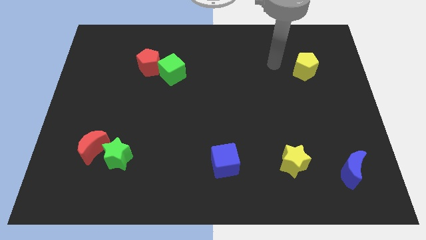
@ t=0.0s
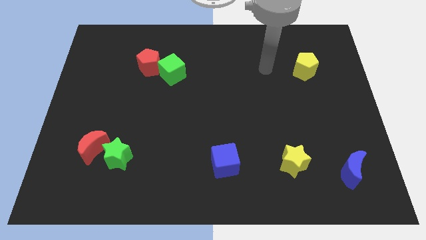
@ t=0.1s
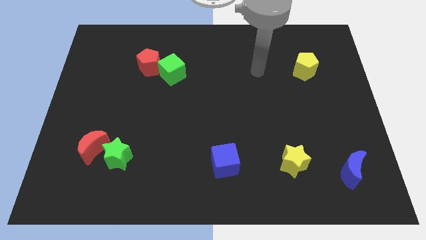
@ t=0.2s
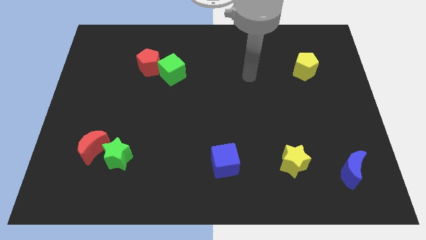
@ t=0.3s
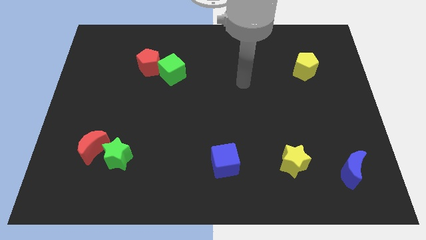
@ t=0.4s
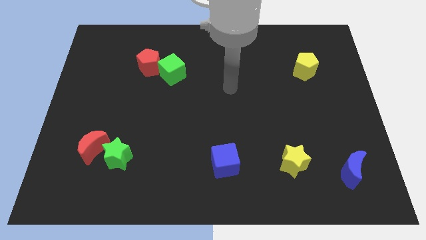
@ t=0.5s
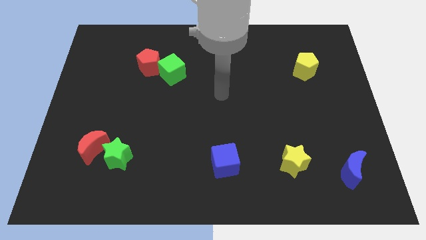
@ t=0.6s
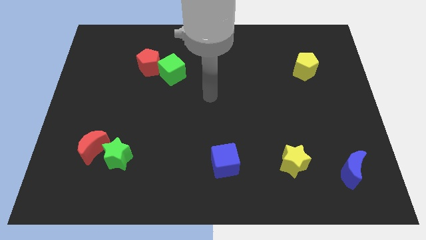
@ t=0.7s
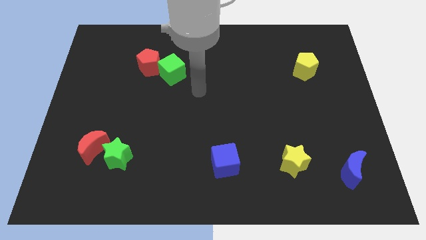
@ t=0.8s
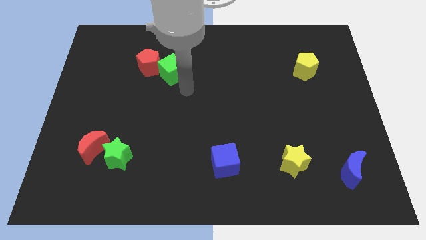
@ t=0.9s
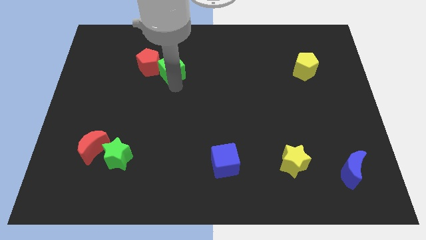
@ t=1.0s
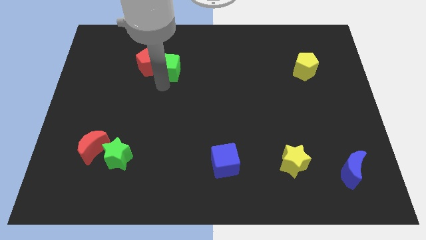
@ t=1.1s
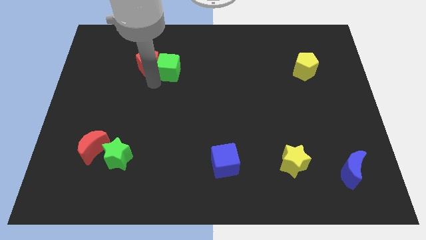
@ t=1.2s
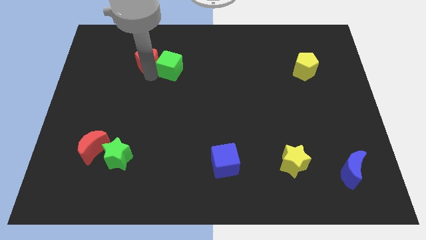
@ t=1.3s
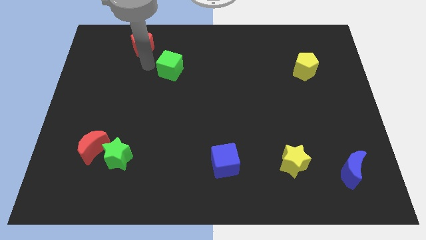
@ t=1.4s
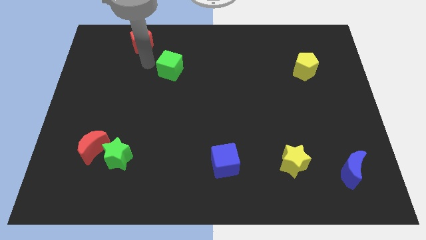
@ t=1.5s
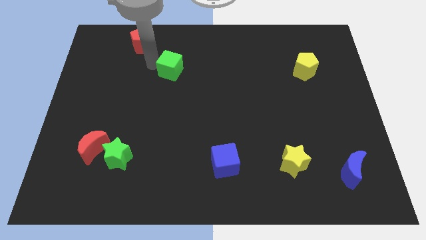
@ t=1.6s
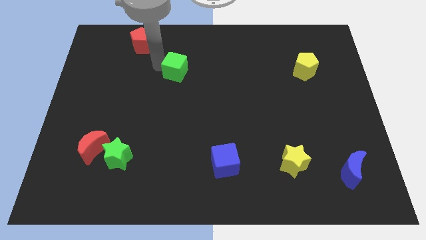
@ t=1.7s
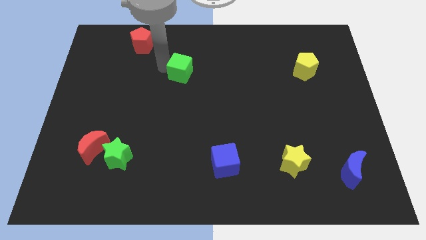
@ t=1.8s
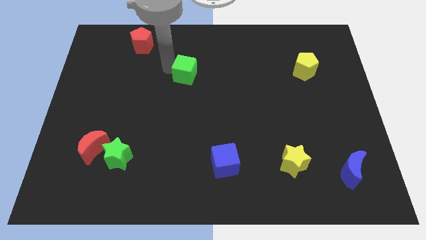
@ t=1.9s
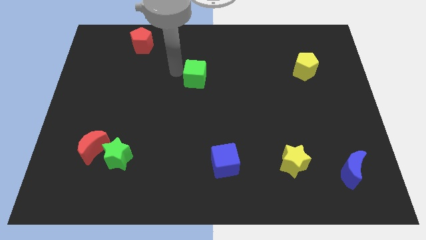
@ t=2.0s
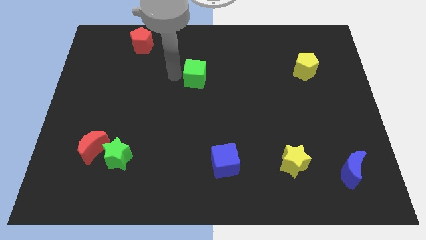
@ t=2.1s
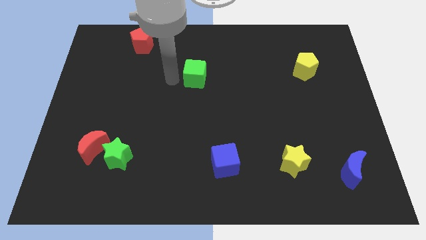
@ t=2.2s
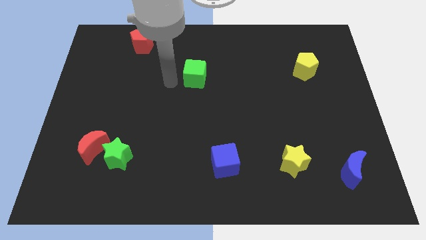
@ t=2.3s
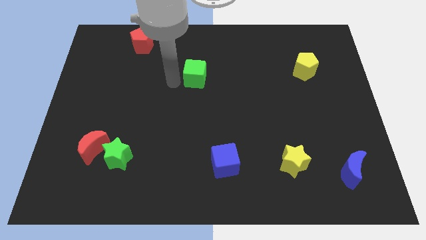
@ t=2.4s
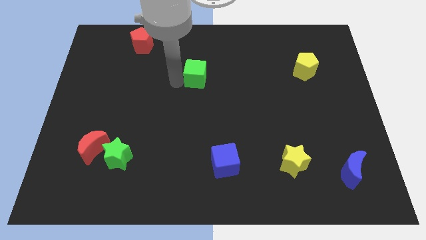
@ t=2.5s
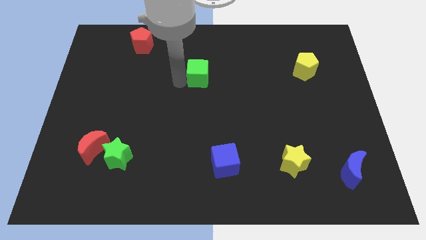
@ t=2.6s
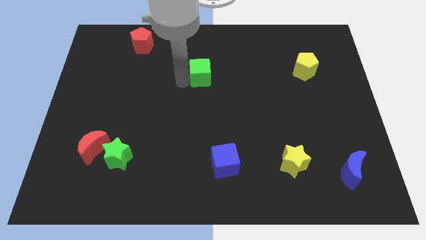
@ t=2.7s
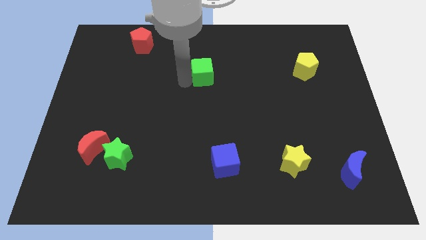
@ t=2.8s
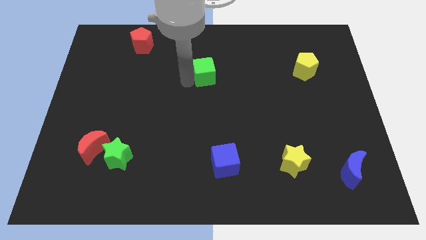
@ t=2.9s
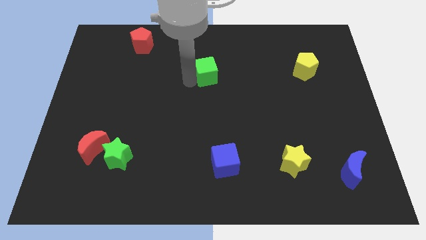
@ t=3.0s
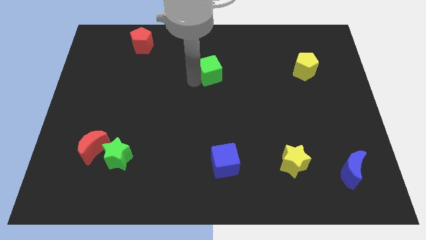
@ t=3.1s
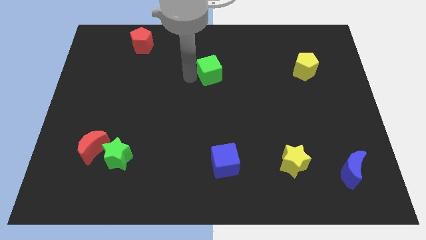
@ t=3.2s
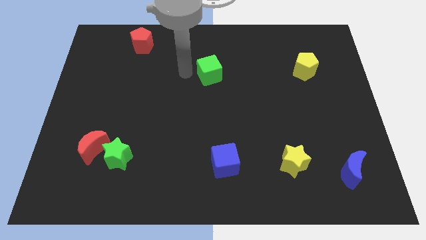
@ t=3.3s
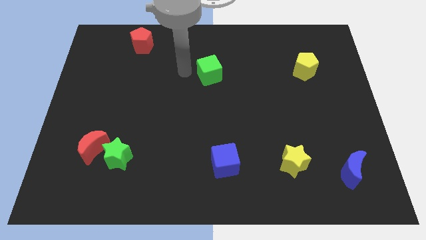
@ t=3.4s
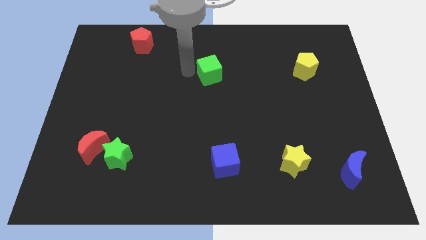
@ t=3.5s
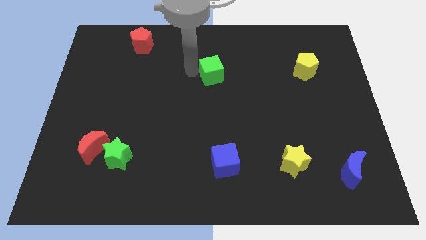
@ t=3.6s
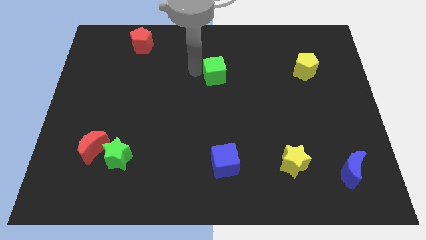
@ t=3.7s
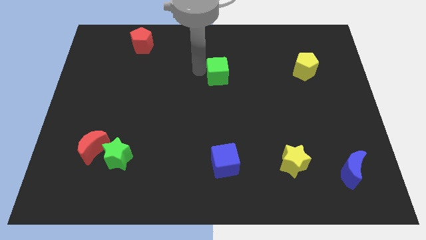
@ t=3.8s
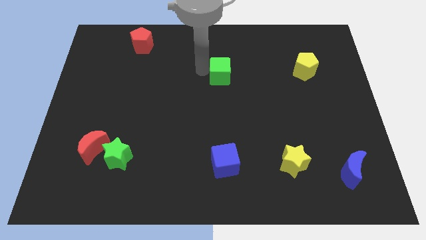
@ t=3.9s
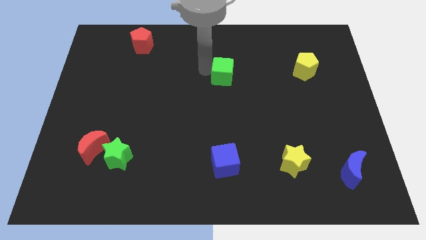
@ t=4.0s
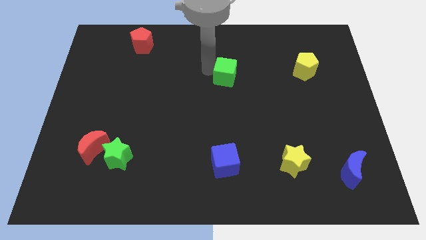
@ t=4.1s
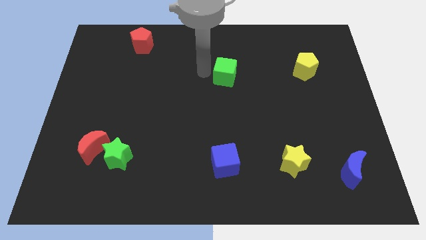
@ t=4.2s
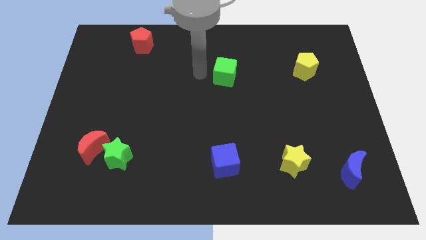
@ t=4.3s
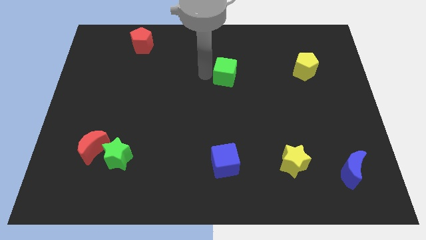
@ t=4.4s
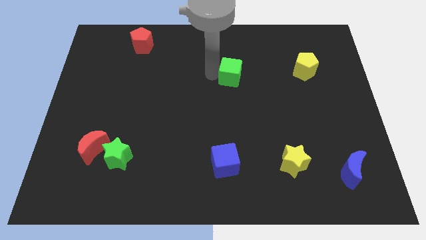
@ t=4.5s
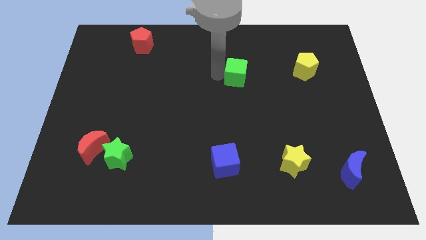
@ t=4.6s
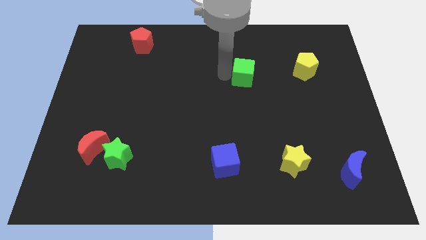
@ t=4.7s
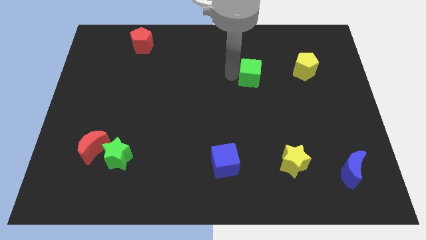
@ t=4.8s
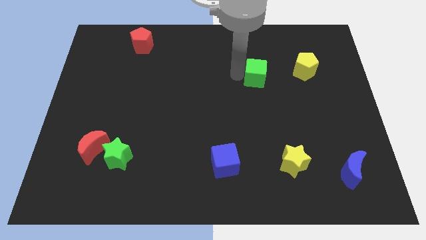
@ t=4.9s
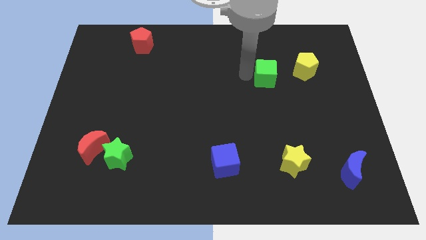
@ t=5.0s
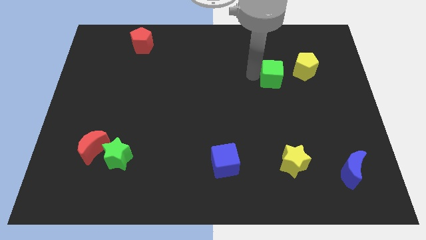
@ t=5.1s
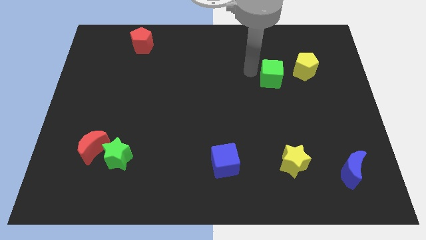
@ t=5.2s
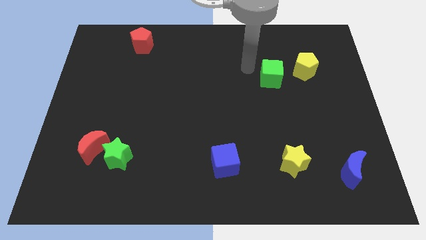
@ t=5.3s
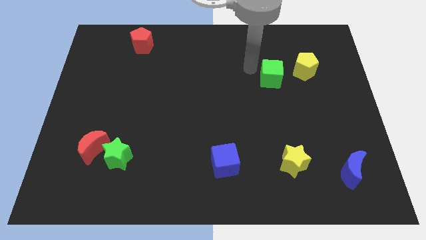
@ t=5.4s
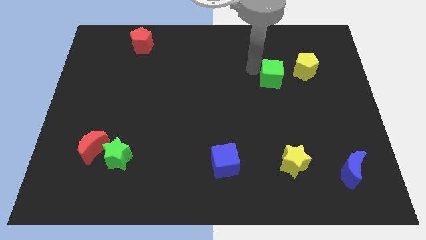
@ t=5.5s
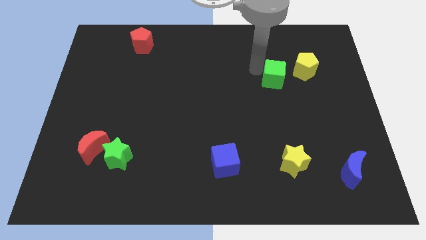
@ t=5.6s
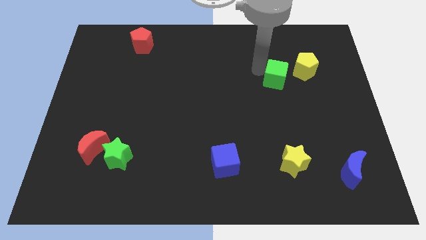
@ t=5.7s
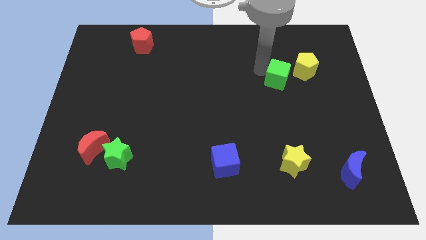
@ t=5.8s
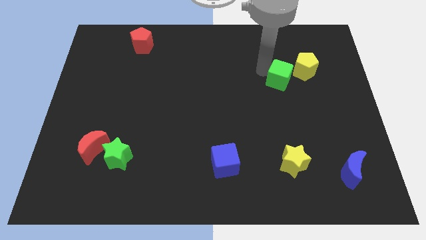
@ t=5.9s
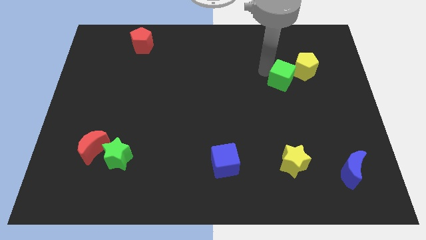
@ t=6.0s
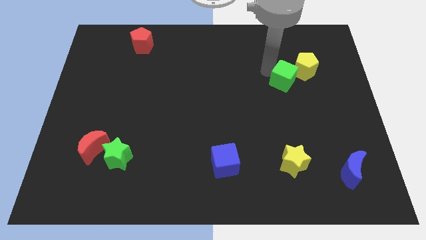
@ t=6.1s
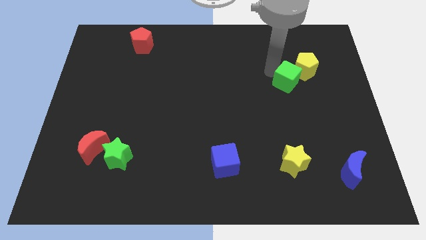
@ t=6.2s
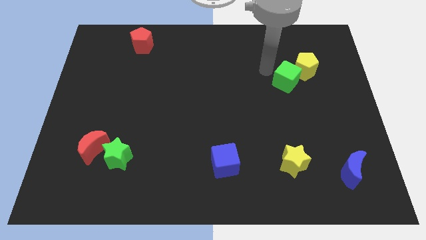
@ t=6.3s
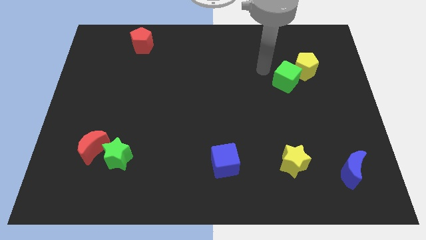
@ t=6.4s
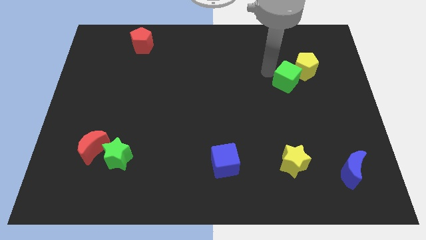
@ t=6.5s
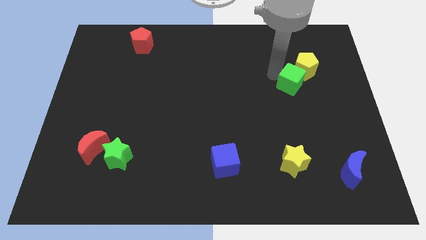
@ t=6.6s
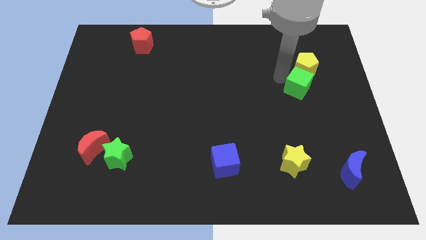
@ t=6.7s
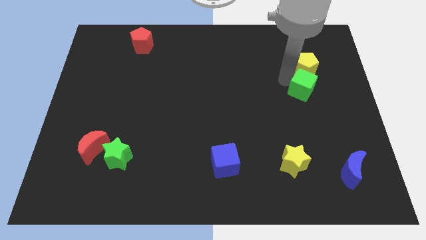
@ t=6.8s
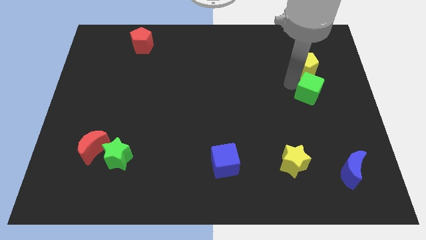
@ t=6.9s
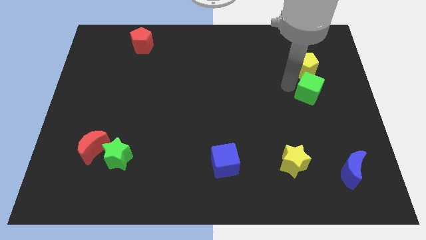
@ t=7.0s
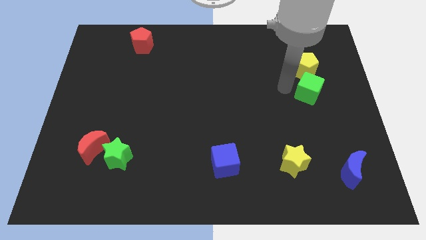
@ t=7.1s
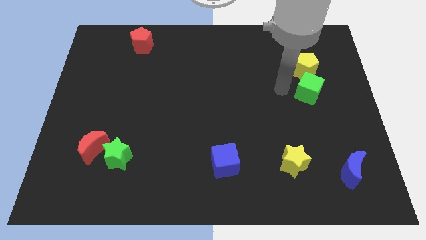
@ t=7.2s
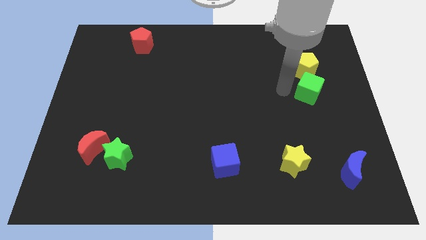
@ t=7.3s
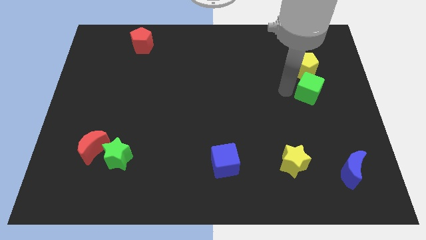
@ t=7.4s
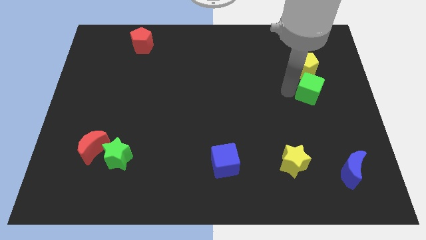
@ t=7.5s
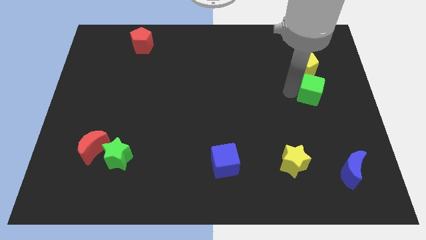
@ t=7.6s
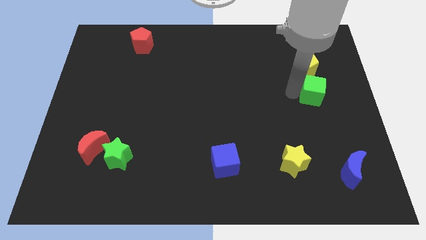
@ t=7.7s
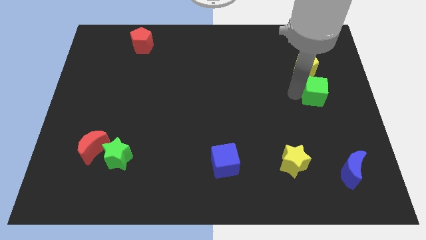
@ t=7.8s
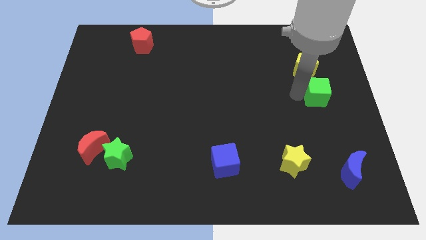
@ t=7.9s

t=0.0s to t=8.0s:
slide the green cube to the center right
